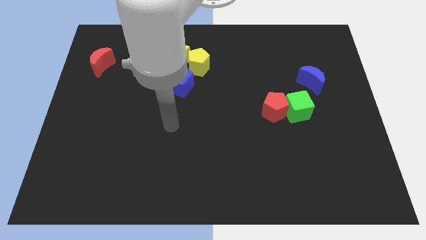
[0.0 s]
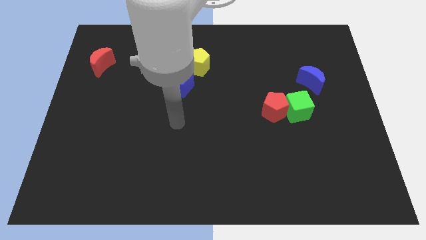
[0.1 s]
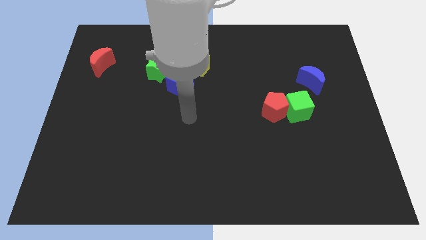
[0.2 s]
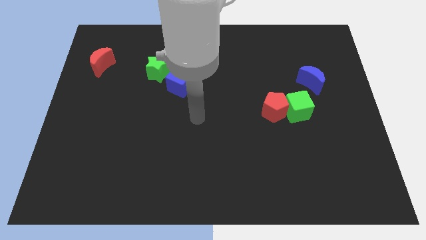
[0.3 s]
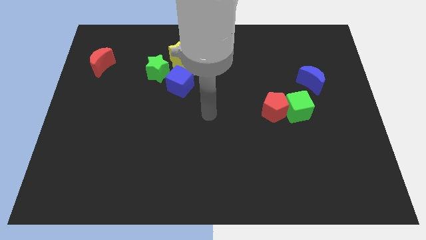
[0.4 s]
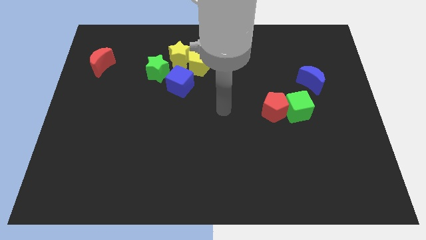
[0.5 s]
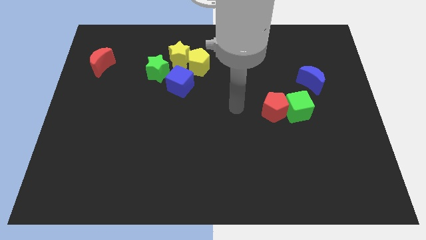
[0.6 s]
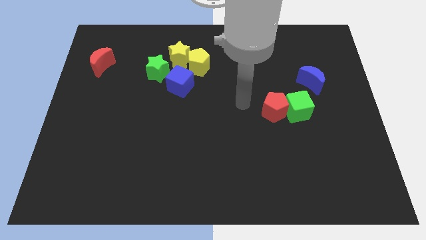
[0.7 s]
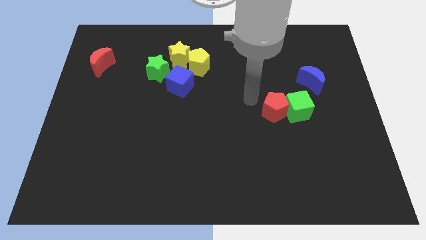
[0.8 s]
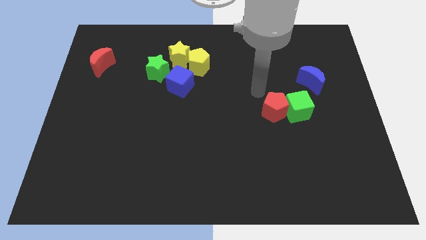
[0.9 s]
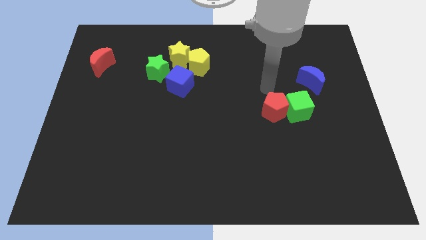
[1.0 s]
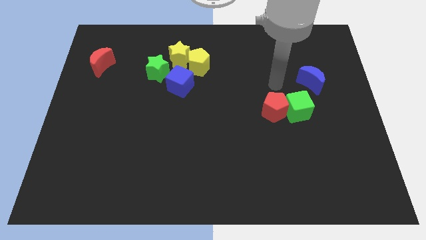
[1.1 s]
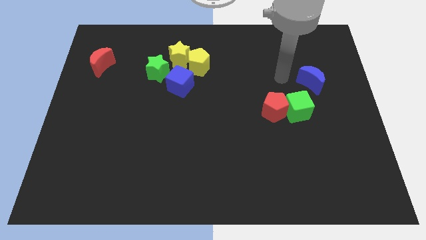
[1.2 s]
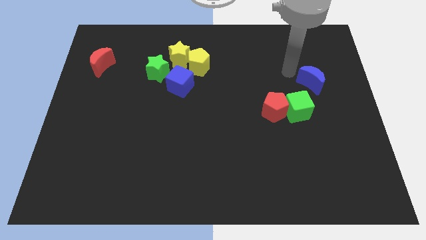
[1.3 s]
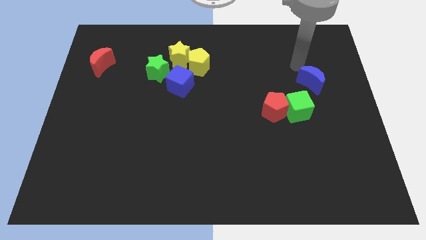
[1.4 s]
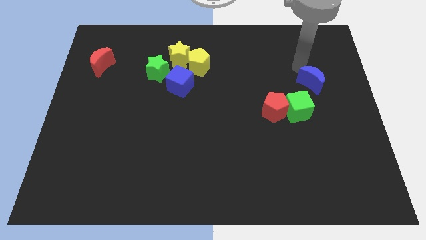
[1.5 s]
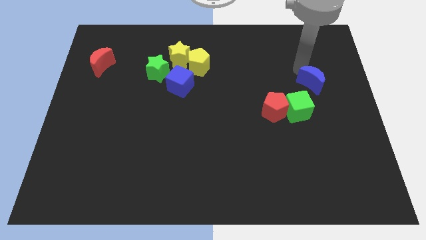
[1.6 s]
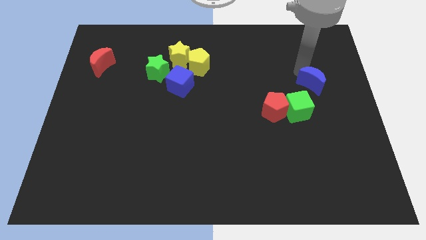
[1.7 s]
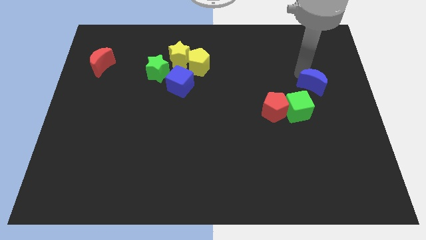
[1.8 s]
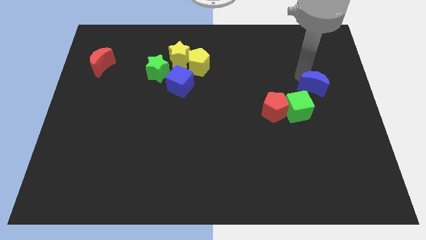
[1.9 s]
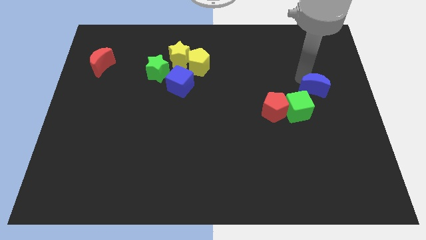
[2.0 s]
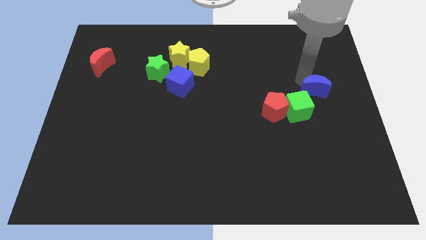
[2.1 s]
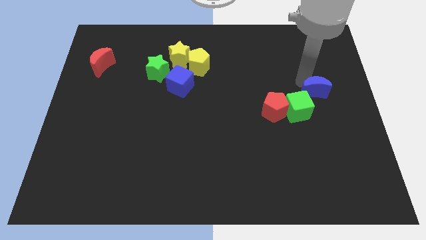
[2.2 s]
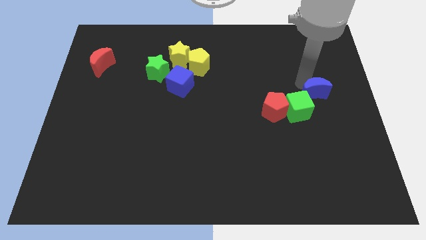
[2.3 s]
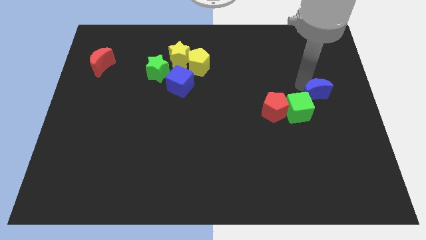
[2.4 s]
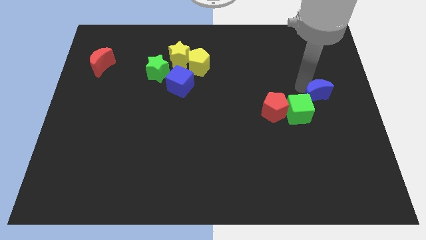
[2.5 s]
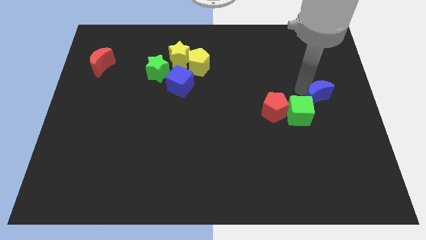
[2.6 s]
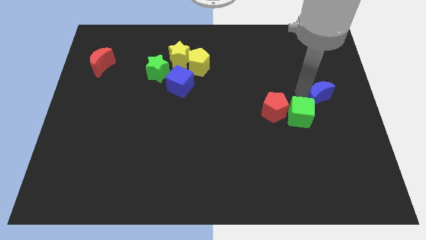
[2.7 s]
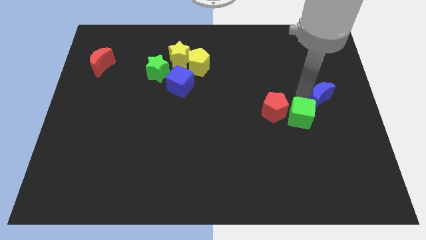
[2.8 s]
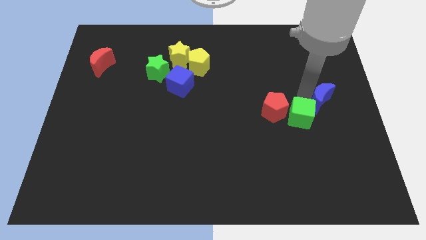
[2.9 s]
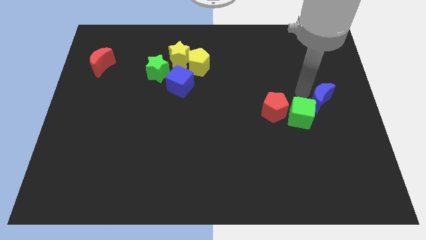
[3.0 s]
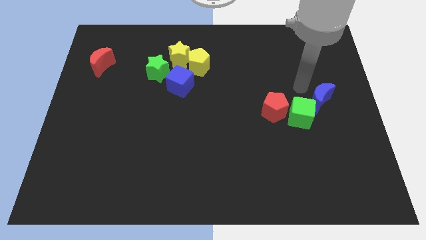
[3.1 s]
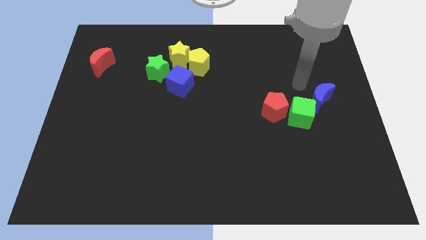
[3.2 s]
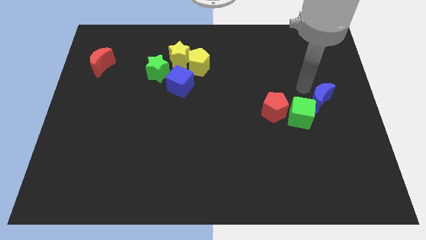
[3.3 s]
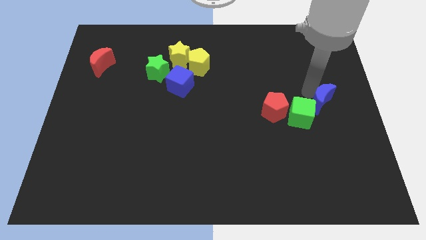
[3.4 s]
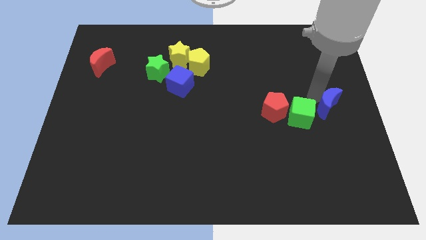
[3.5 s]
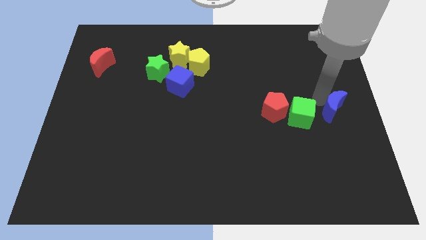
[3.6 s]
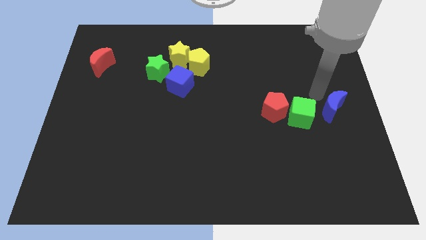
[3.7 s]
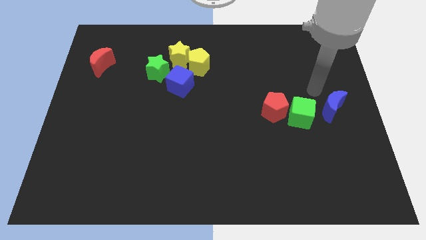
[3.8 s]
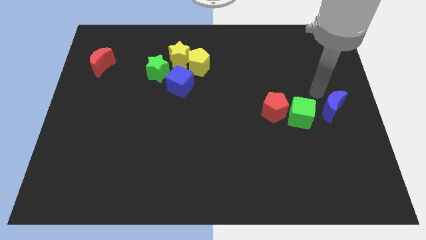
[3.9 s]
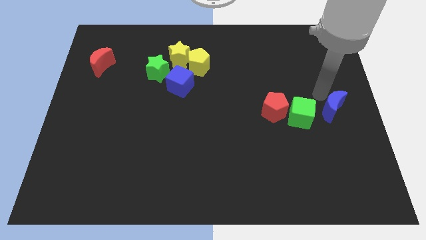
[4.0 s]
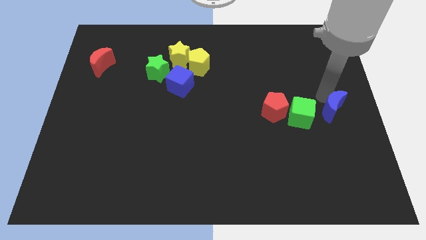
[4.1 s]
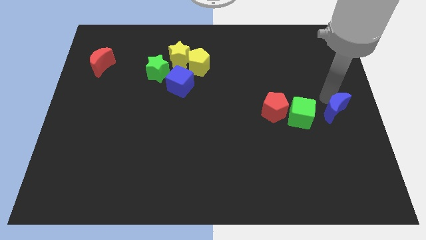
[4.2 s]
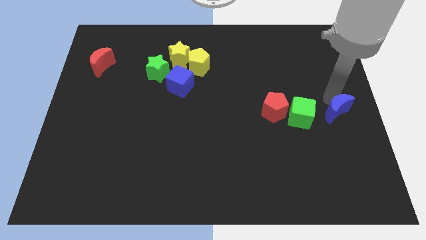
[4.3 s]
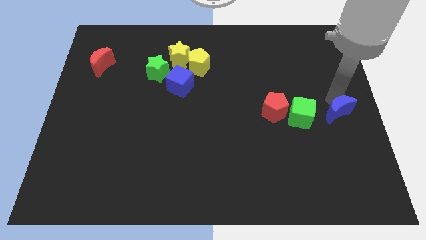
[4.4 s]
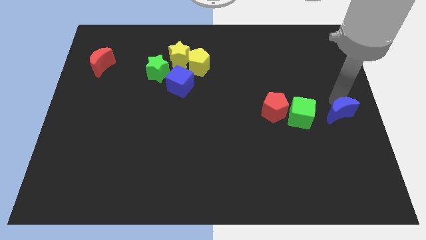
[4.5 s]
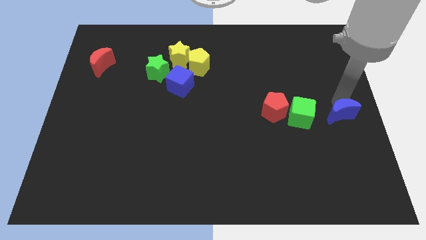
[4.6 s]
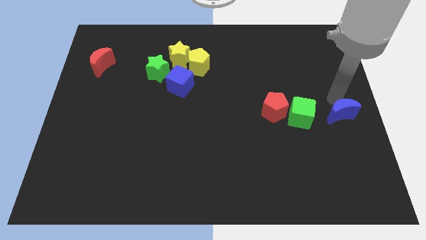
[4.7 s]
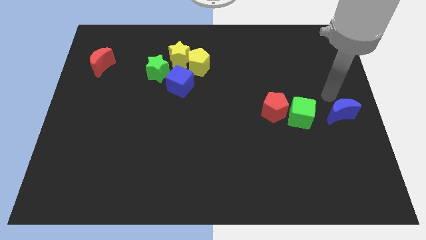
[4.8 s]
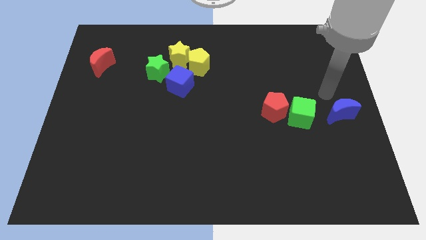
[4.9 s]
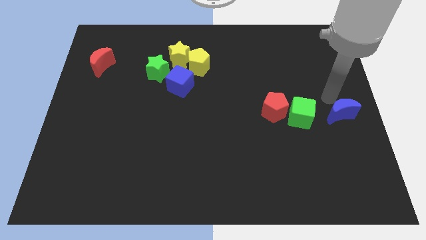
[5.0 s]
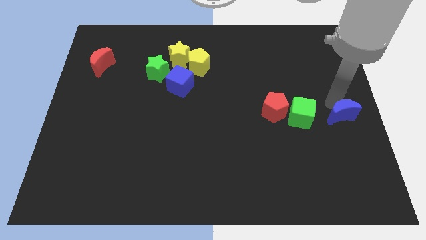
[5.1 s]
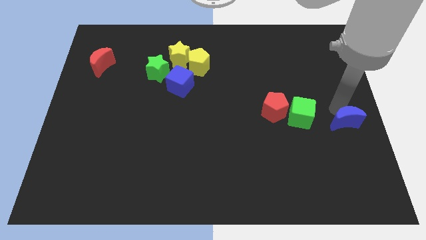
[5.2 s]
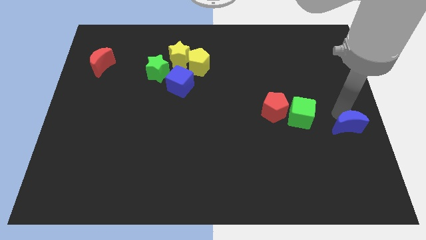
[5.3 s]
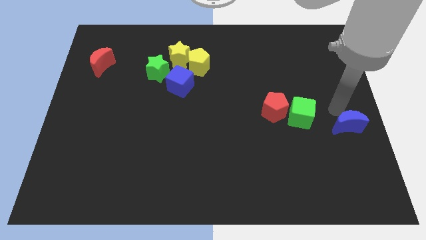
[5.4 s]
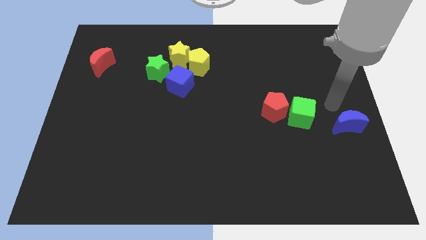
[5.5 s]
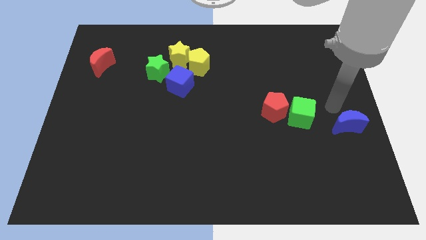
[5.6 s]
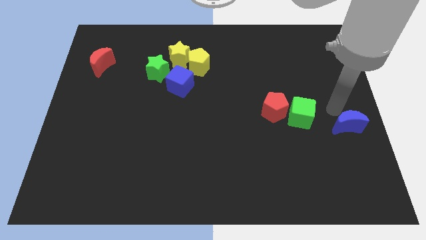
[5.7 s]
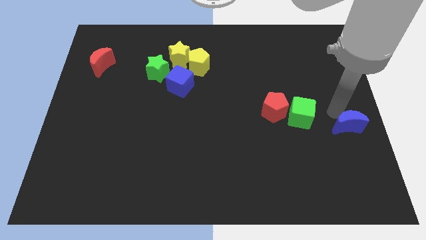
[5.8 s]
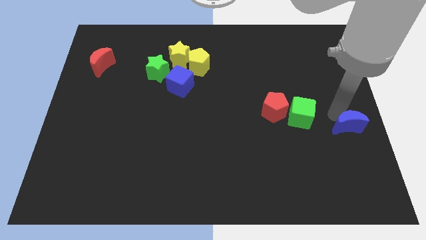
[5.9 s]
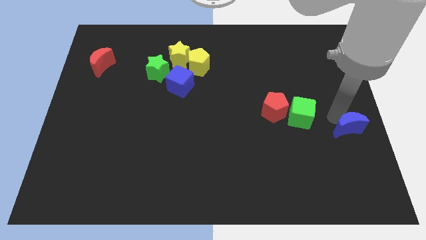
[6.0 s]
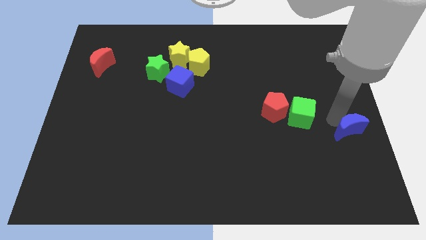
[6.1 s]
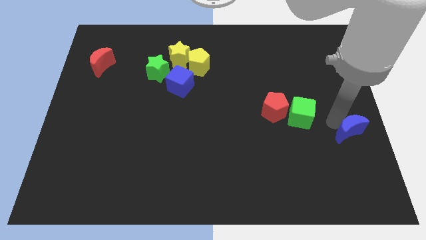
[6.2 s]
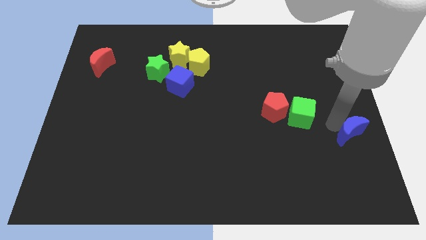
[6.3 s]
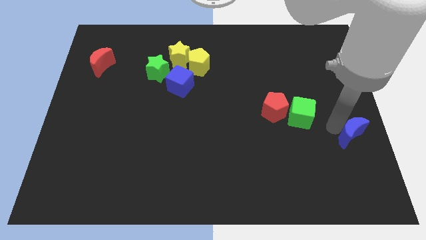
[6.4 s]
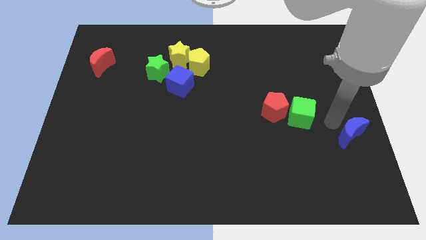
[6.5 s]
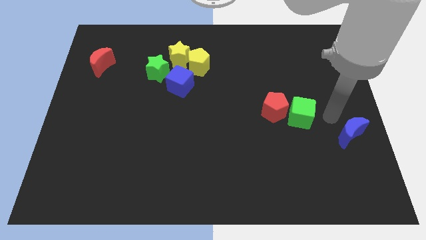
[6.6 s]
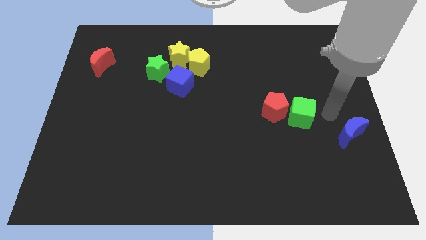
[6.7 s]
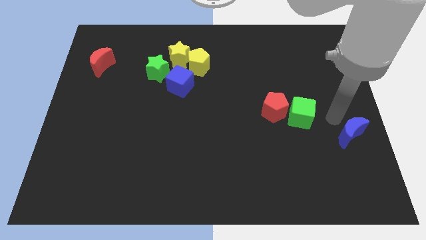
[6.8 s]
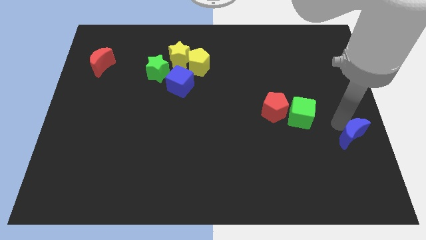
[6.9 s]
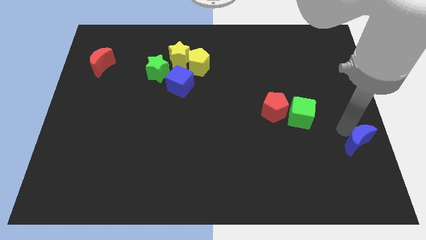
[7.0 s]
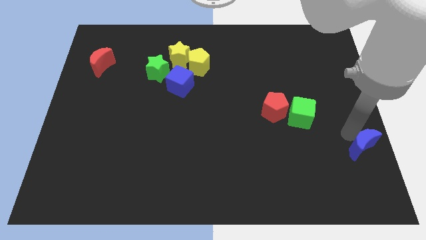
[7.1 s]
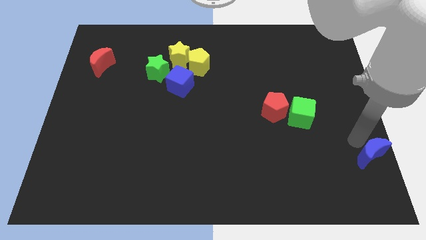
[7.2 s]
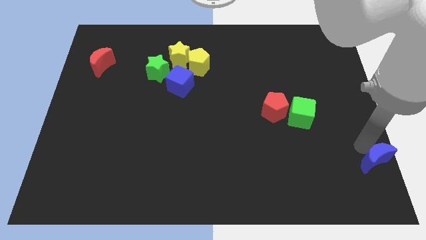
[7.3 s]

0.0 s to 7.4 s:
put the blue moon to the lower right corner
